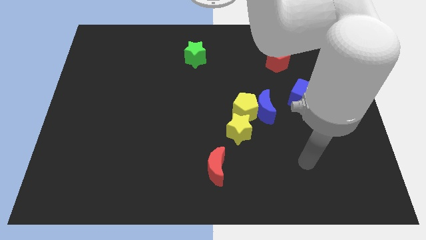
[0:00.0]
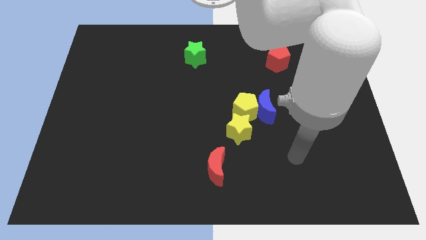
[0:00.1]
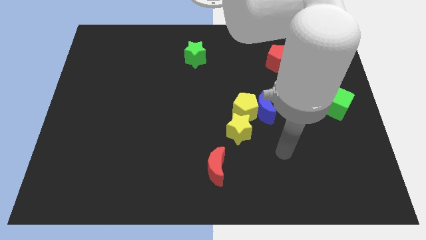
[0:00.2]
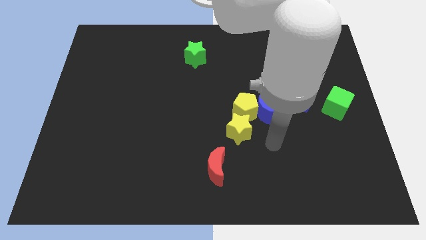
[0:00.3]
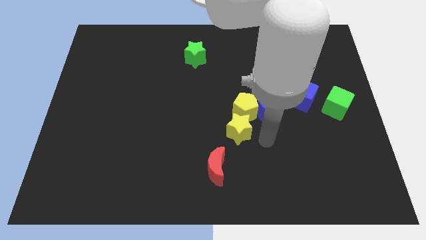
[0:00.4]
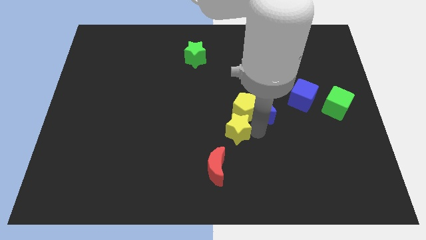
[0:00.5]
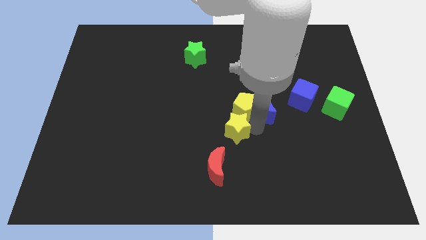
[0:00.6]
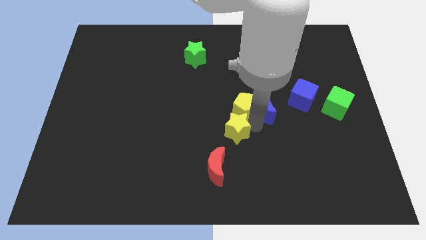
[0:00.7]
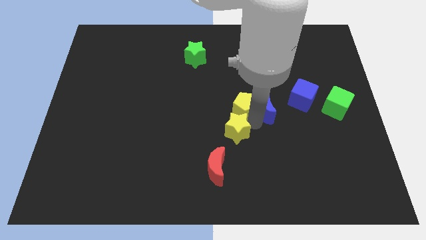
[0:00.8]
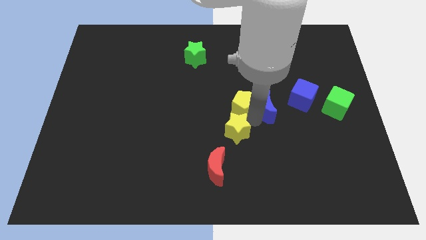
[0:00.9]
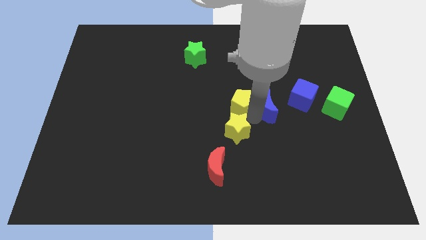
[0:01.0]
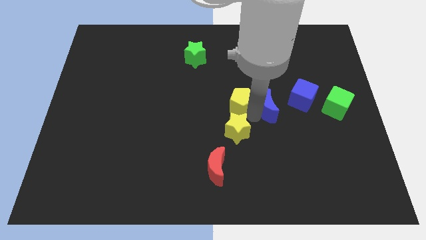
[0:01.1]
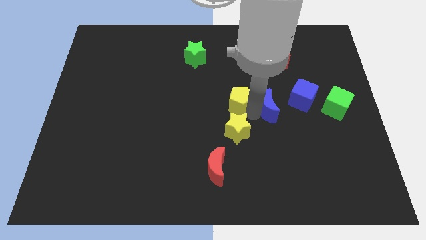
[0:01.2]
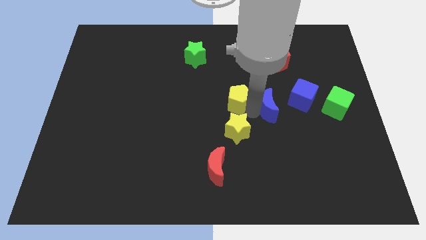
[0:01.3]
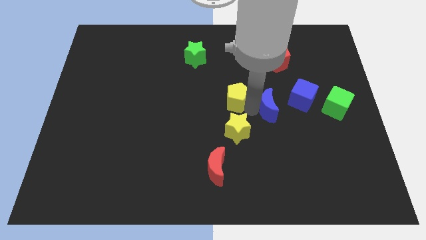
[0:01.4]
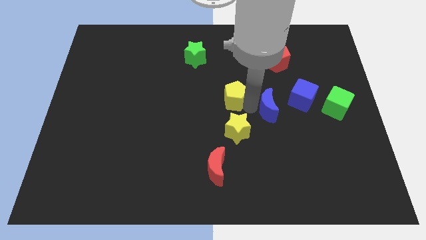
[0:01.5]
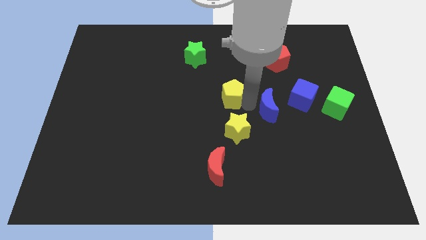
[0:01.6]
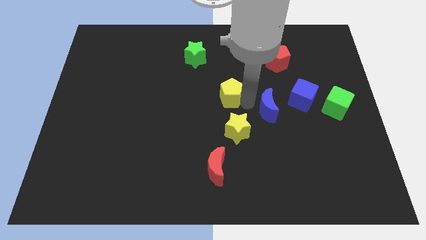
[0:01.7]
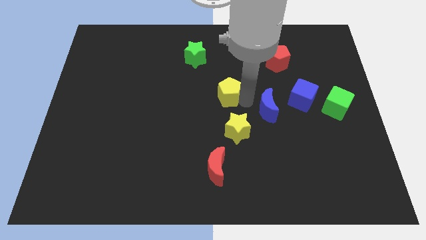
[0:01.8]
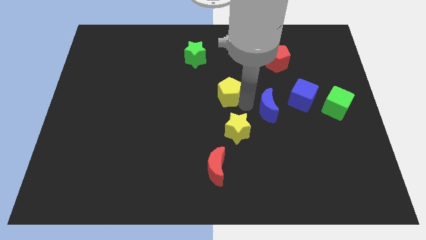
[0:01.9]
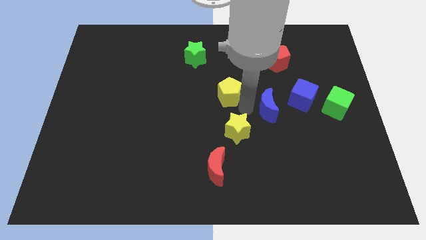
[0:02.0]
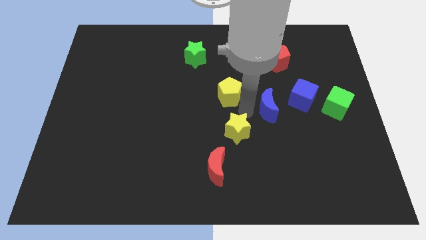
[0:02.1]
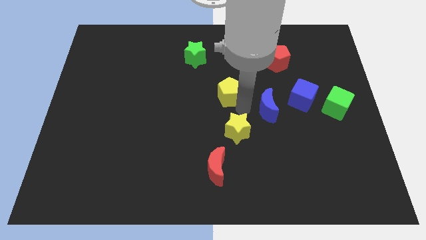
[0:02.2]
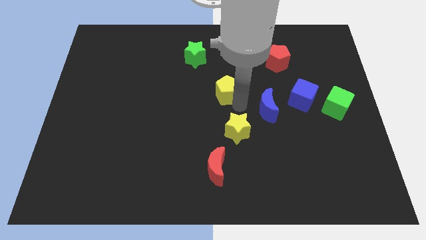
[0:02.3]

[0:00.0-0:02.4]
move the yellow pentagon away from the blue moon and yellow star

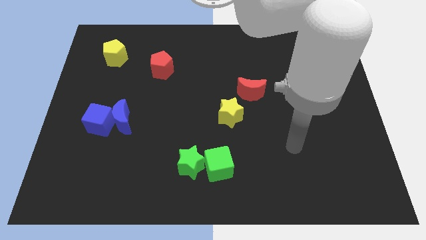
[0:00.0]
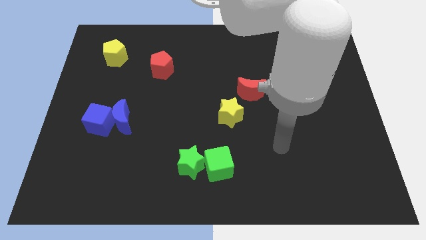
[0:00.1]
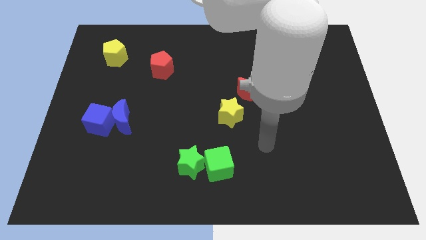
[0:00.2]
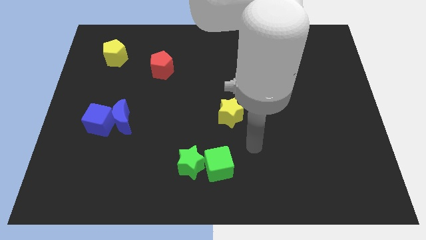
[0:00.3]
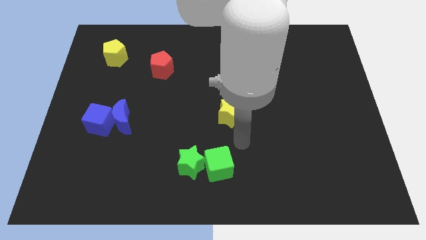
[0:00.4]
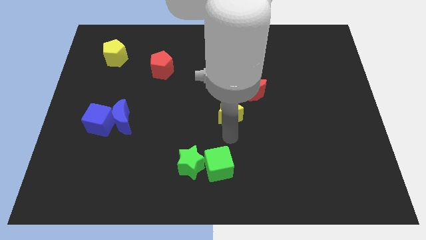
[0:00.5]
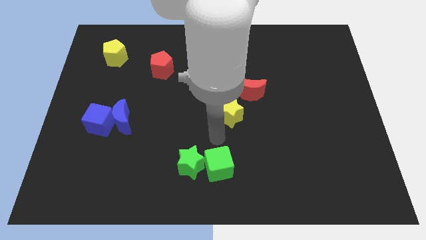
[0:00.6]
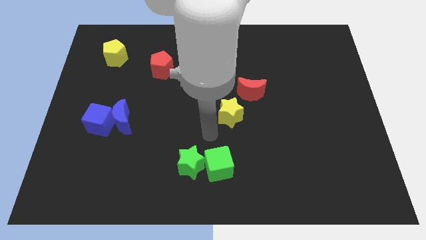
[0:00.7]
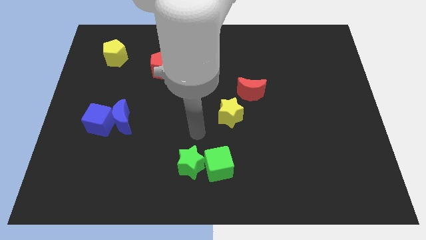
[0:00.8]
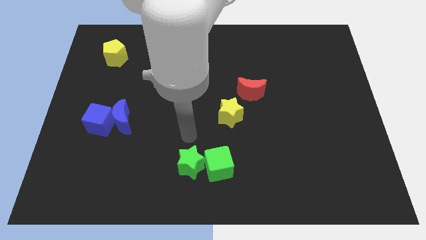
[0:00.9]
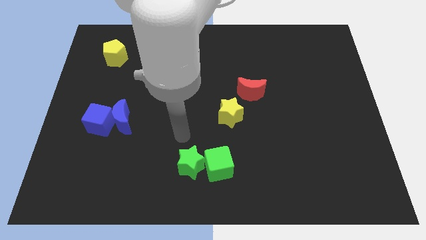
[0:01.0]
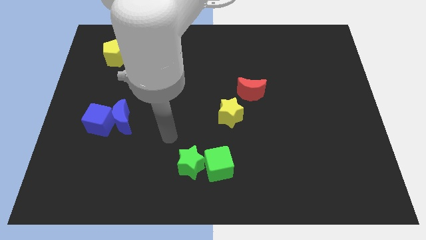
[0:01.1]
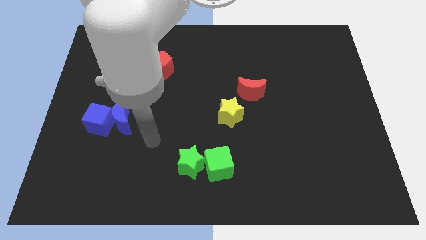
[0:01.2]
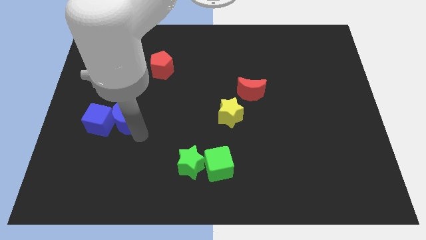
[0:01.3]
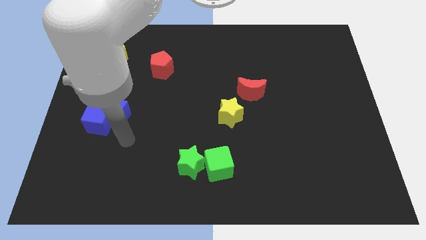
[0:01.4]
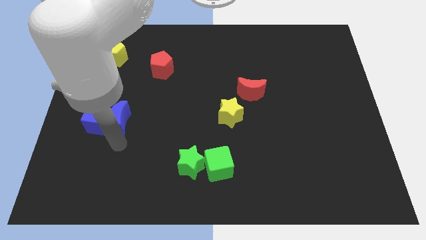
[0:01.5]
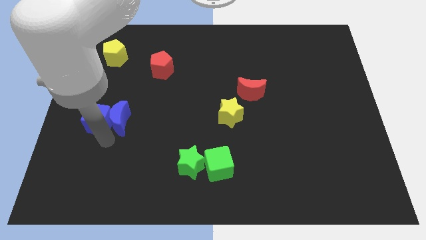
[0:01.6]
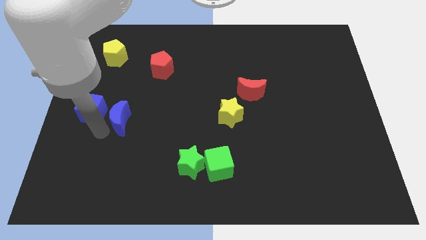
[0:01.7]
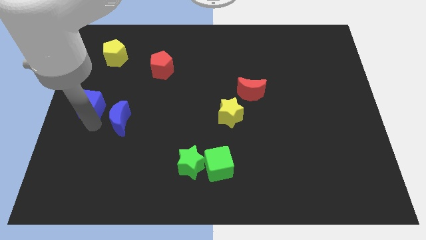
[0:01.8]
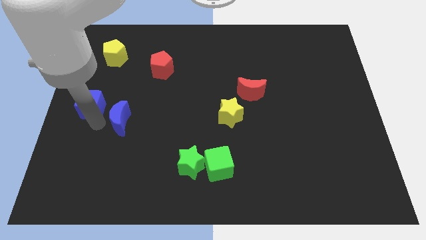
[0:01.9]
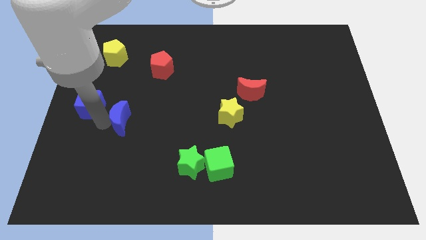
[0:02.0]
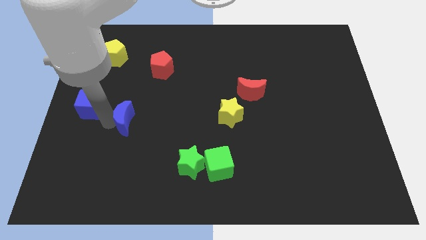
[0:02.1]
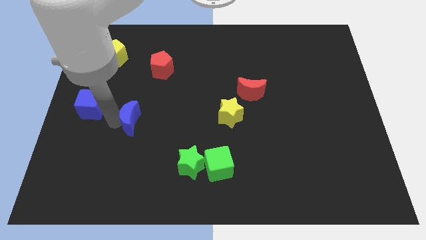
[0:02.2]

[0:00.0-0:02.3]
separate the blue moon from the blue cube

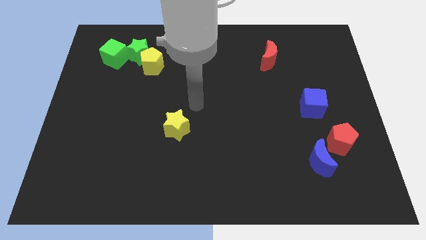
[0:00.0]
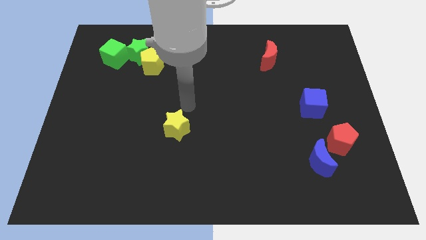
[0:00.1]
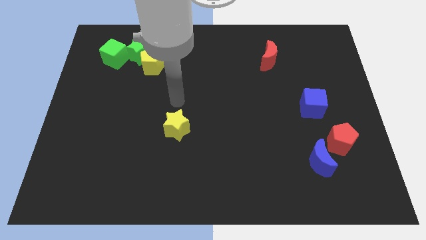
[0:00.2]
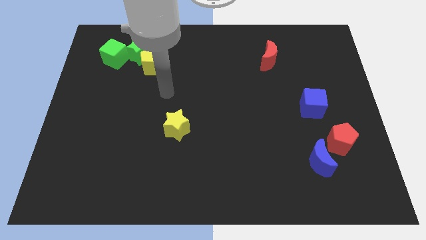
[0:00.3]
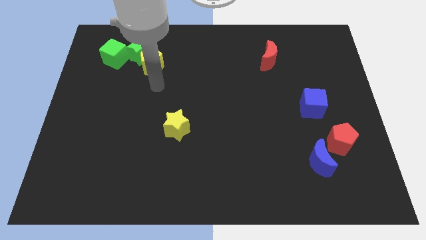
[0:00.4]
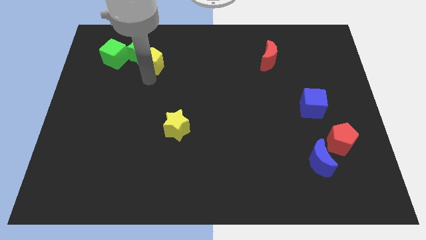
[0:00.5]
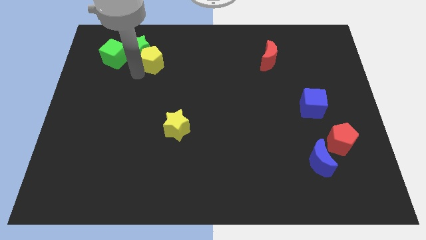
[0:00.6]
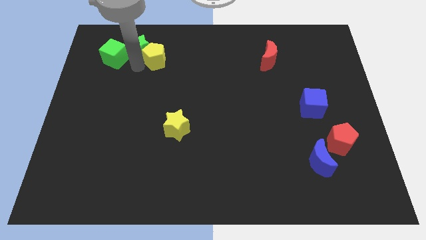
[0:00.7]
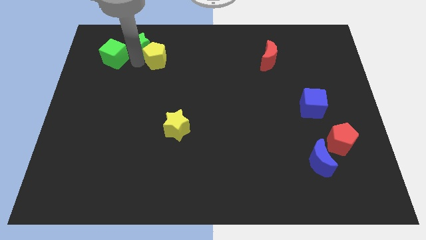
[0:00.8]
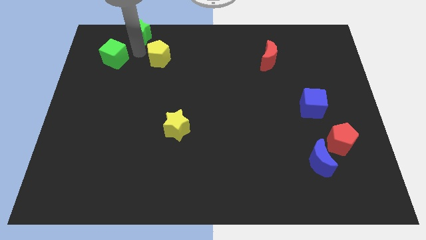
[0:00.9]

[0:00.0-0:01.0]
move the yellow pentagon away from the green star

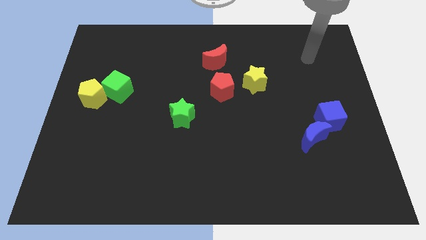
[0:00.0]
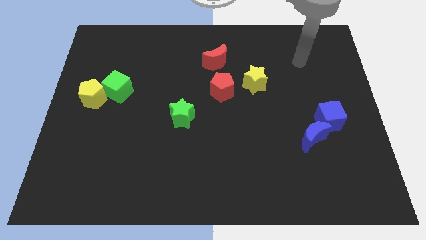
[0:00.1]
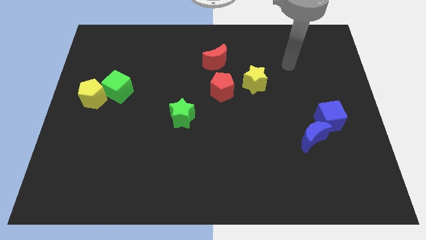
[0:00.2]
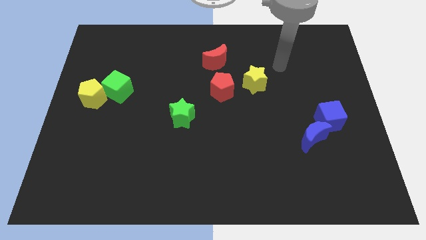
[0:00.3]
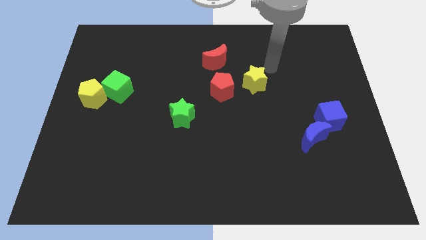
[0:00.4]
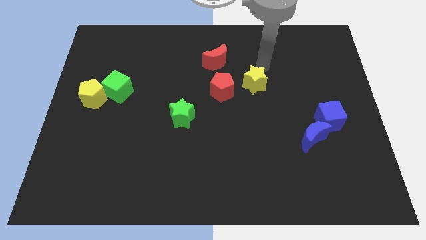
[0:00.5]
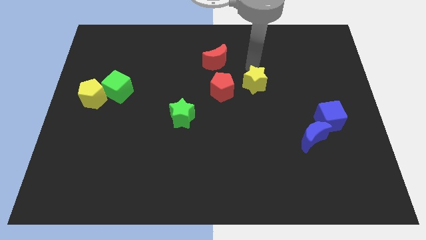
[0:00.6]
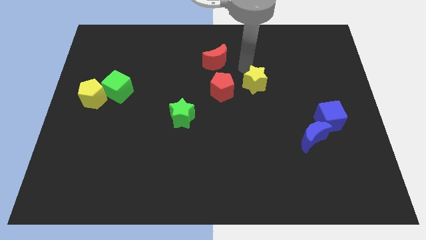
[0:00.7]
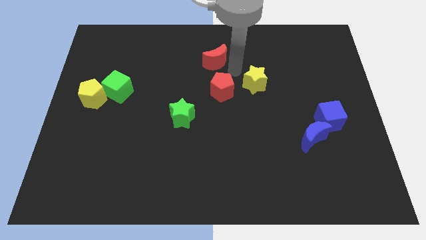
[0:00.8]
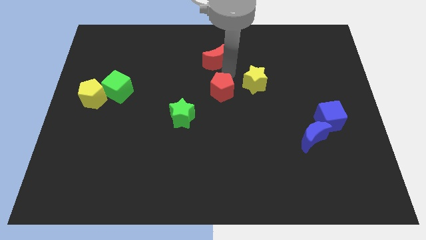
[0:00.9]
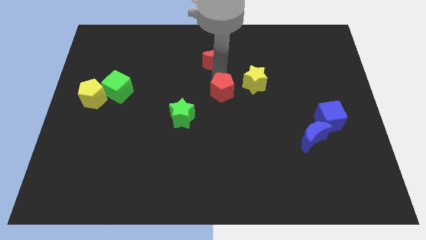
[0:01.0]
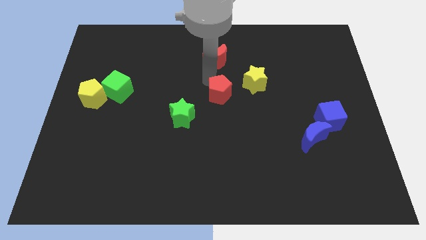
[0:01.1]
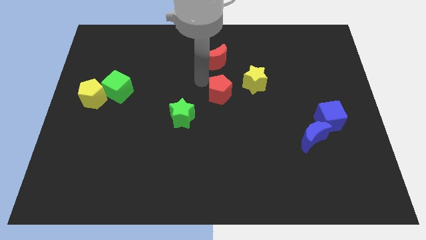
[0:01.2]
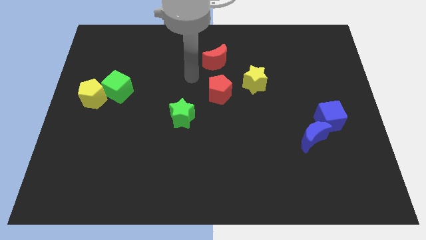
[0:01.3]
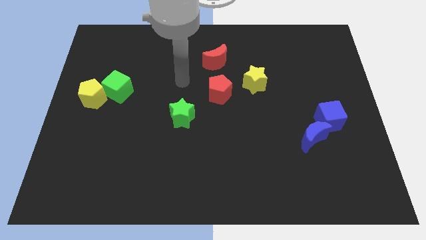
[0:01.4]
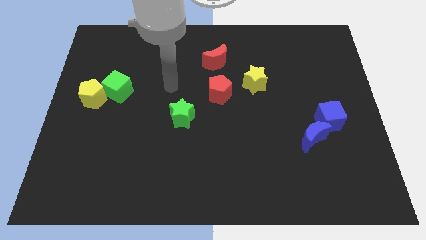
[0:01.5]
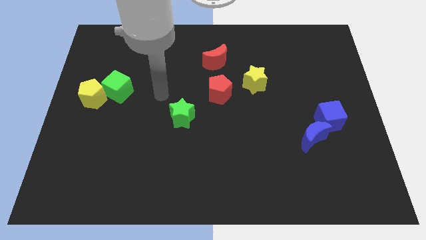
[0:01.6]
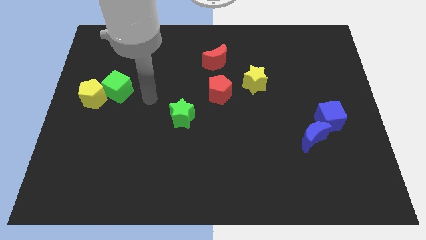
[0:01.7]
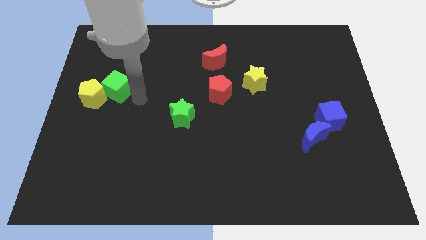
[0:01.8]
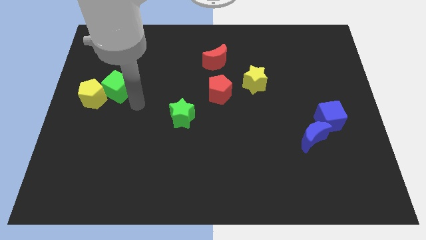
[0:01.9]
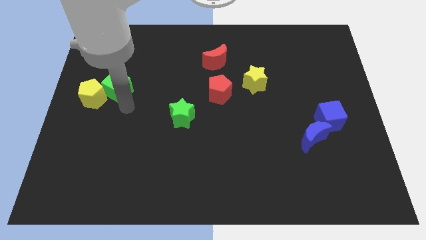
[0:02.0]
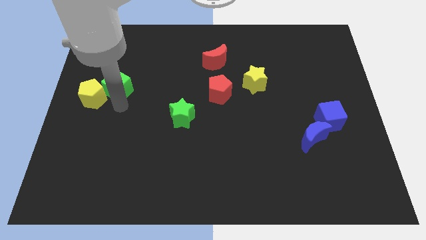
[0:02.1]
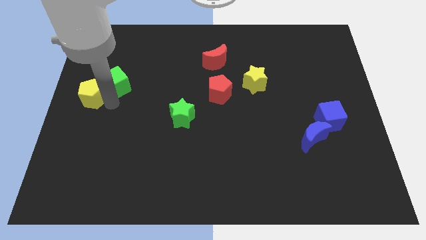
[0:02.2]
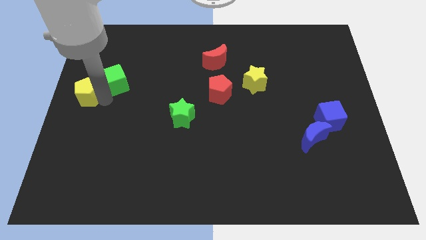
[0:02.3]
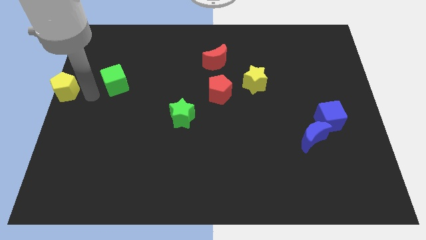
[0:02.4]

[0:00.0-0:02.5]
separate the green cube from the yellow pentagon

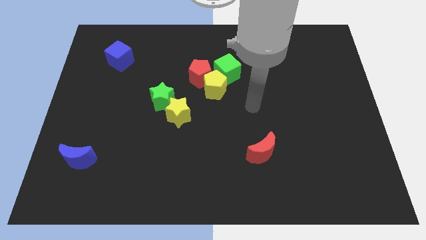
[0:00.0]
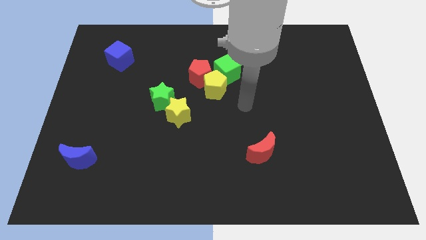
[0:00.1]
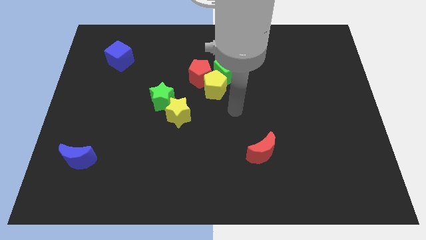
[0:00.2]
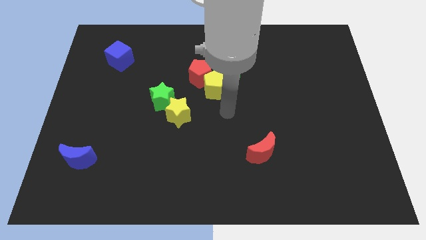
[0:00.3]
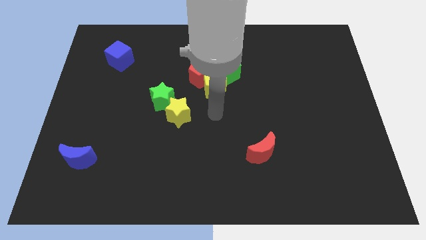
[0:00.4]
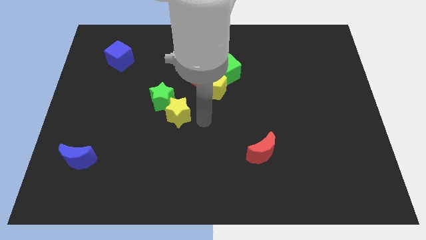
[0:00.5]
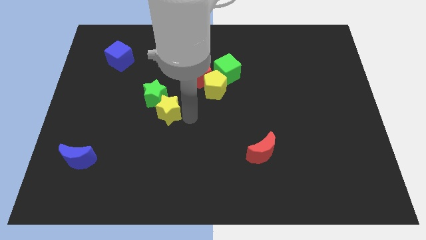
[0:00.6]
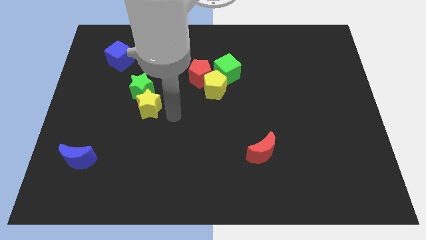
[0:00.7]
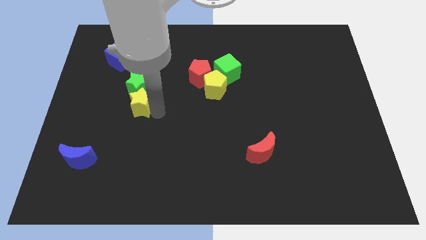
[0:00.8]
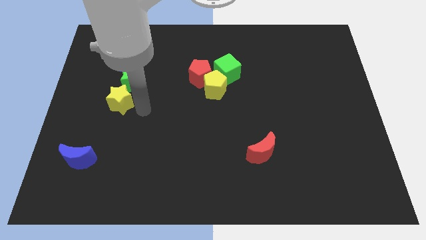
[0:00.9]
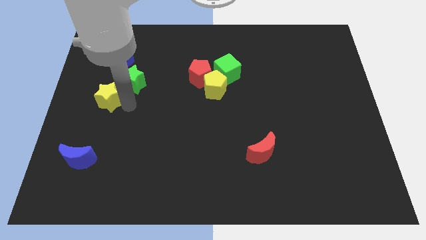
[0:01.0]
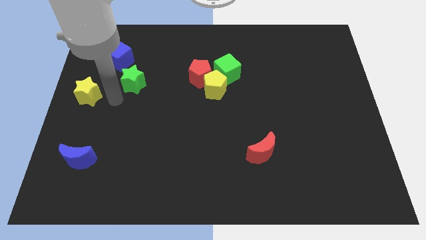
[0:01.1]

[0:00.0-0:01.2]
separate the green star from the yellow star
